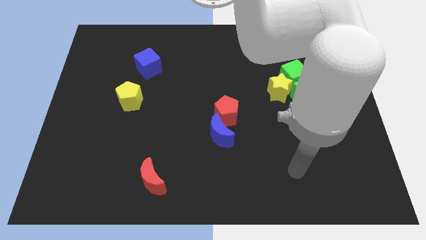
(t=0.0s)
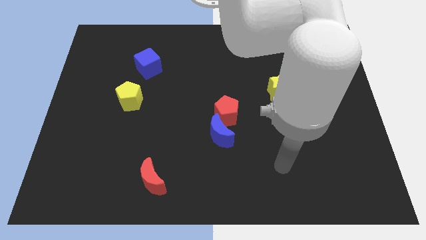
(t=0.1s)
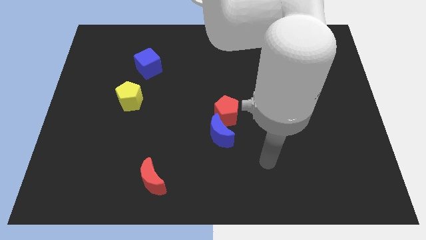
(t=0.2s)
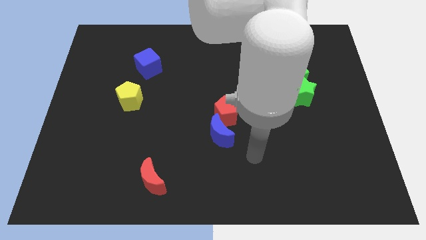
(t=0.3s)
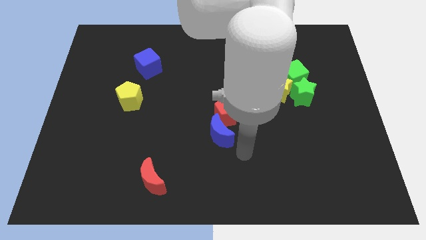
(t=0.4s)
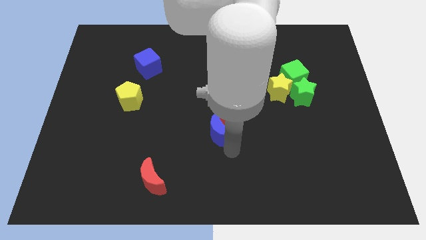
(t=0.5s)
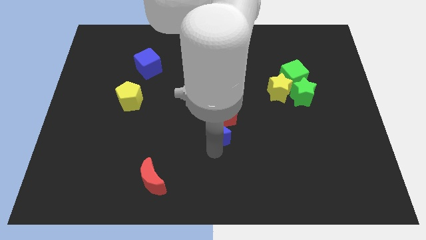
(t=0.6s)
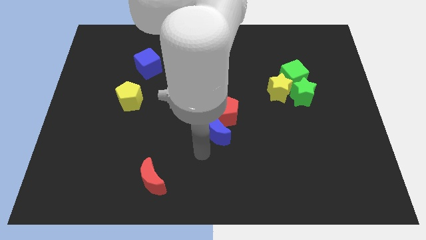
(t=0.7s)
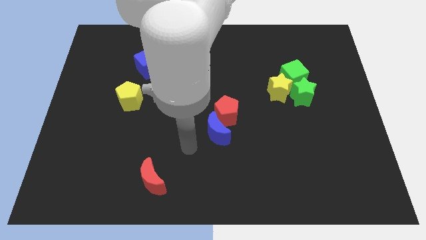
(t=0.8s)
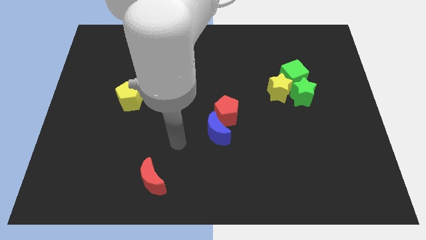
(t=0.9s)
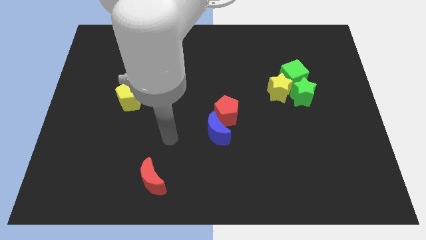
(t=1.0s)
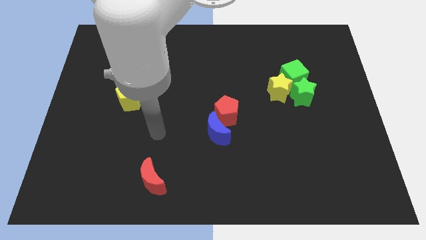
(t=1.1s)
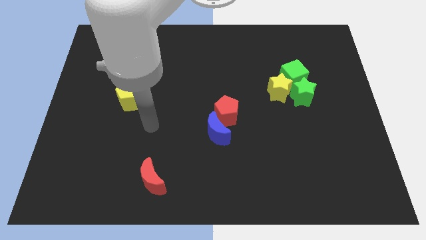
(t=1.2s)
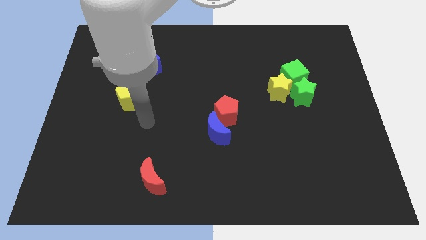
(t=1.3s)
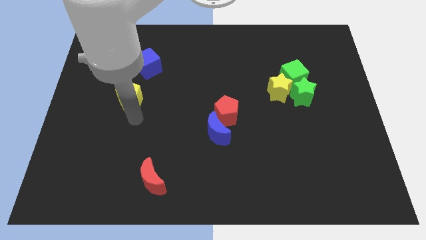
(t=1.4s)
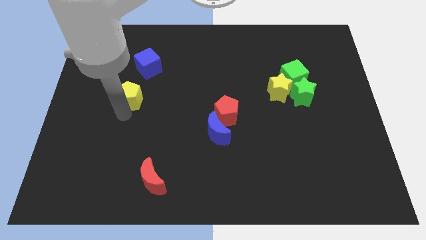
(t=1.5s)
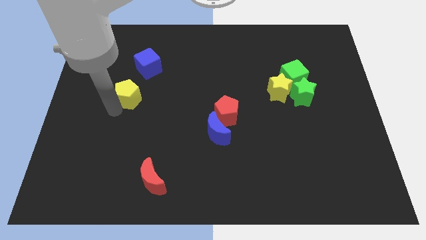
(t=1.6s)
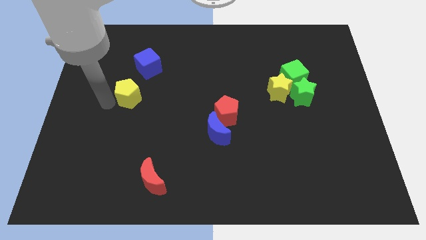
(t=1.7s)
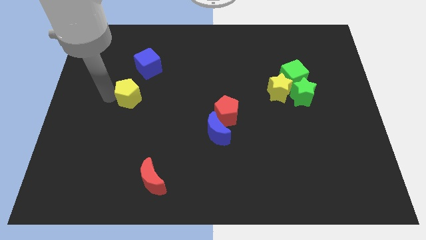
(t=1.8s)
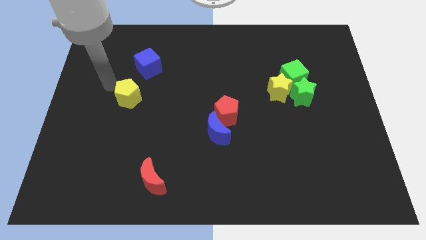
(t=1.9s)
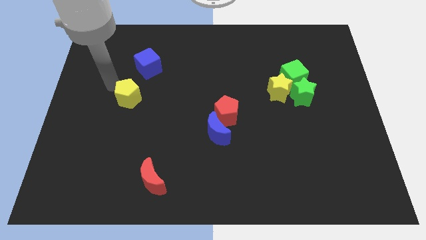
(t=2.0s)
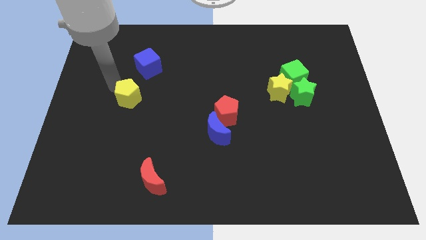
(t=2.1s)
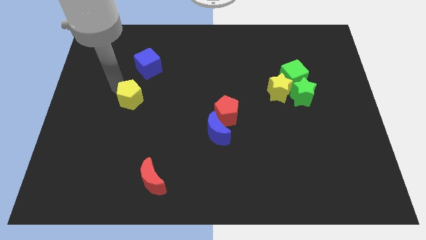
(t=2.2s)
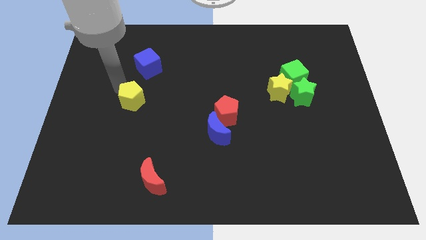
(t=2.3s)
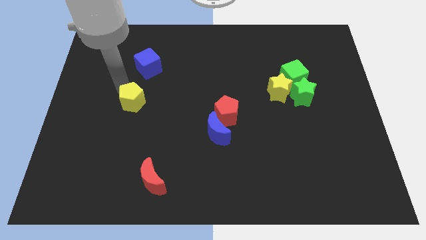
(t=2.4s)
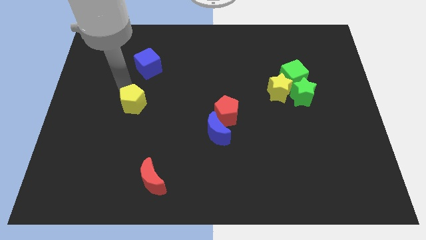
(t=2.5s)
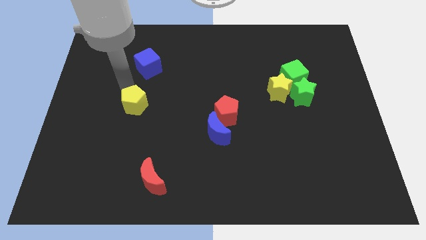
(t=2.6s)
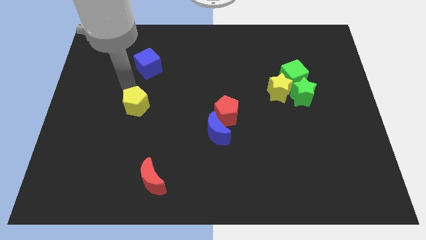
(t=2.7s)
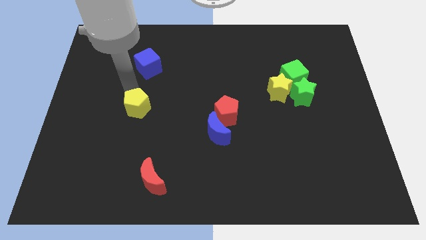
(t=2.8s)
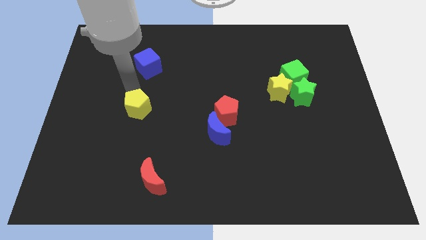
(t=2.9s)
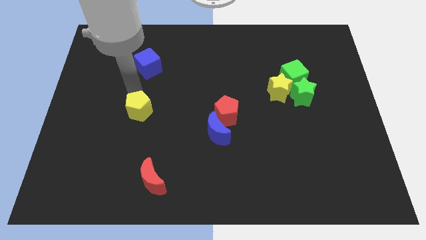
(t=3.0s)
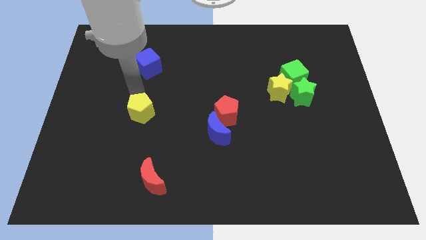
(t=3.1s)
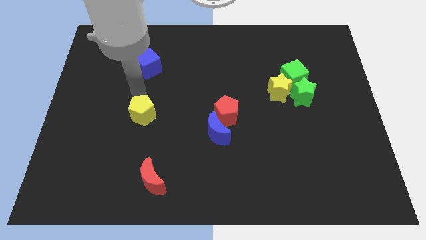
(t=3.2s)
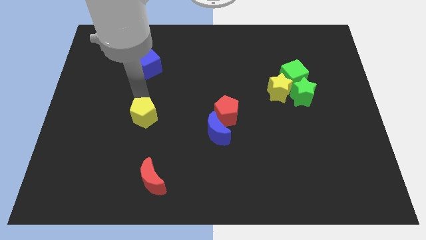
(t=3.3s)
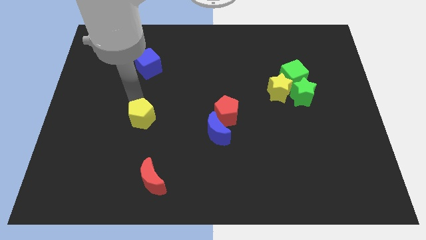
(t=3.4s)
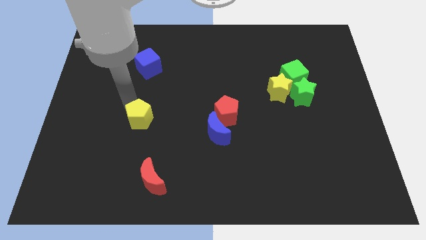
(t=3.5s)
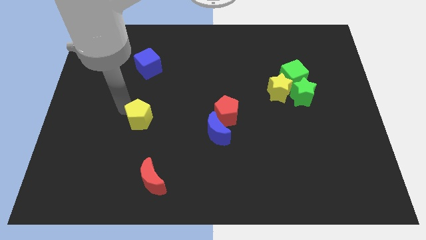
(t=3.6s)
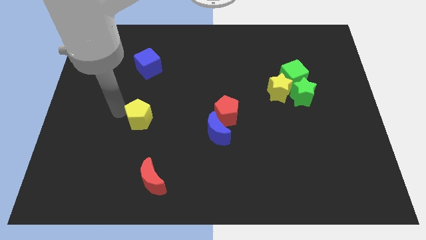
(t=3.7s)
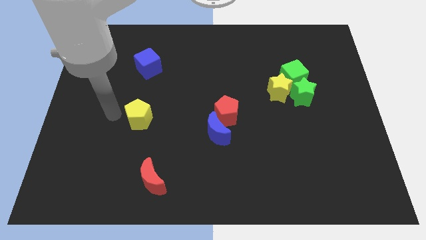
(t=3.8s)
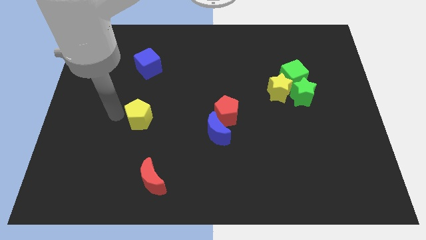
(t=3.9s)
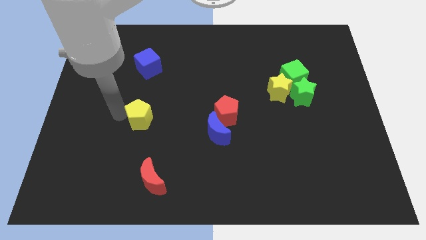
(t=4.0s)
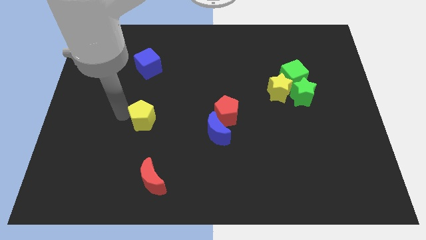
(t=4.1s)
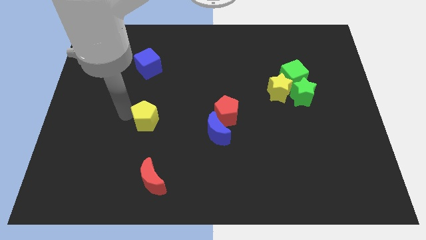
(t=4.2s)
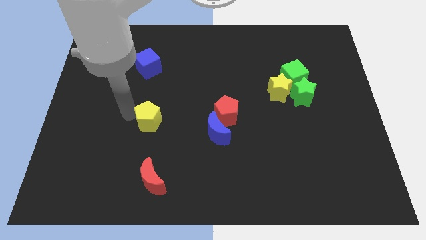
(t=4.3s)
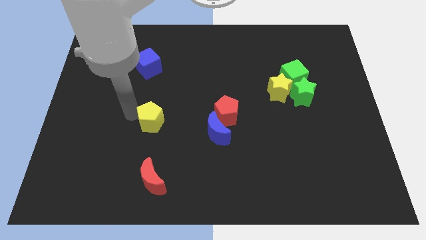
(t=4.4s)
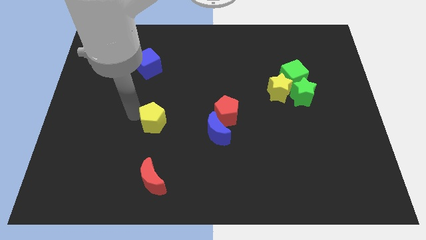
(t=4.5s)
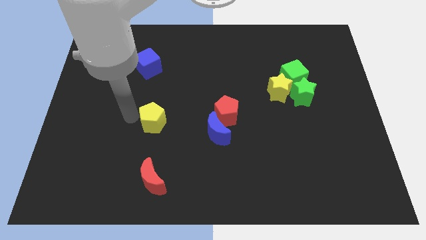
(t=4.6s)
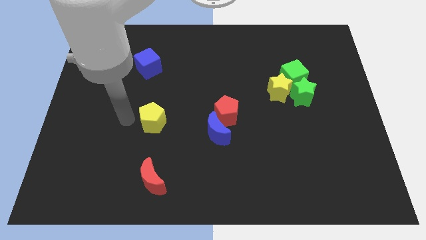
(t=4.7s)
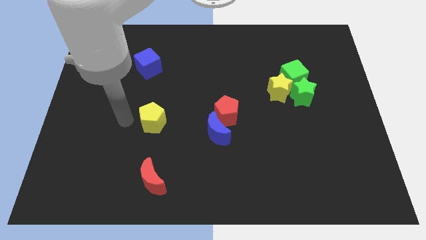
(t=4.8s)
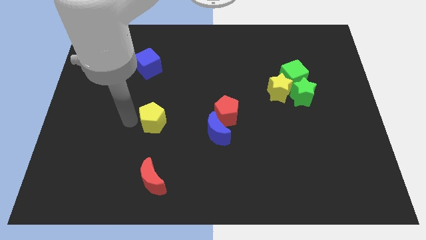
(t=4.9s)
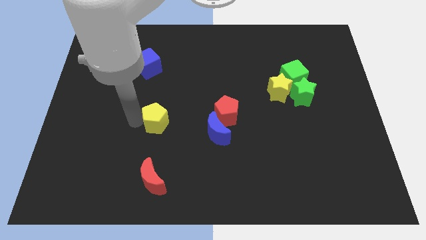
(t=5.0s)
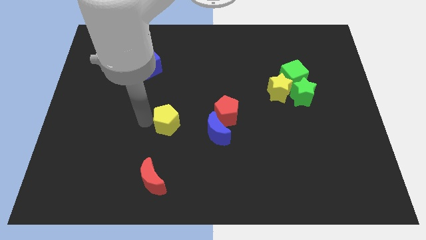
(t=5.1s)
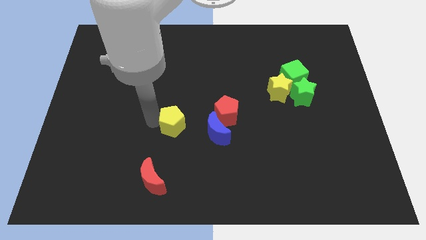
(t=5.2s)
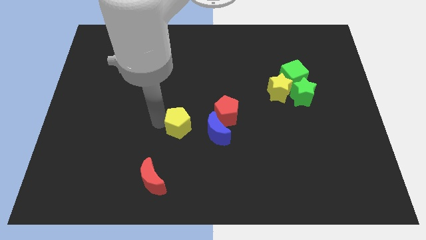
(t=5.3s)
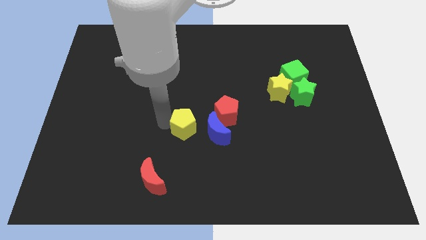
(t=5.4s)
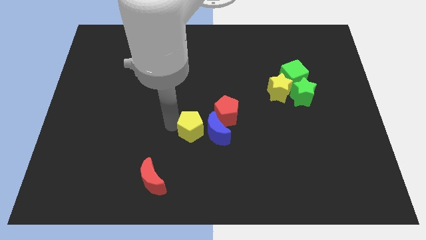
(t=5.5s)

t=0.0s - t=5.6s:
put the yellow pentagon next to the blue moon

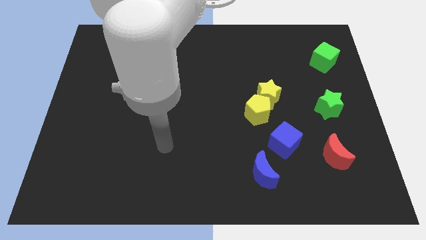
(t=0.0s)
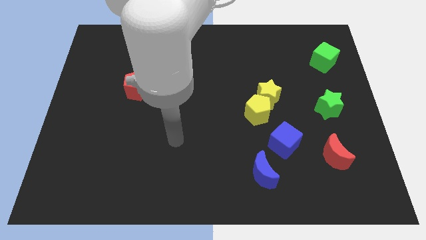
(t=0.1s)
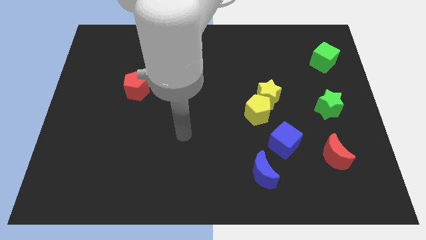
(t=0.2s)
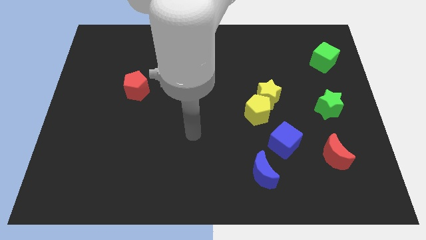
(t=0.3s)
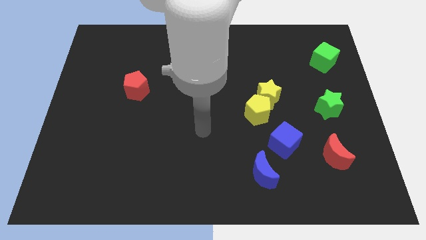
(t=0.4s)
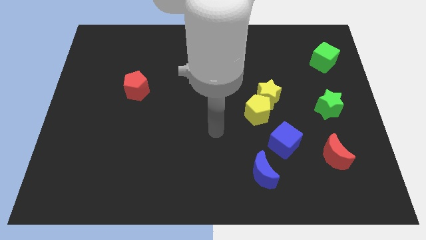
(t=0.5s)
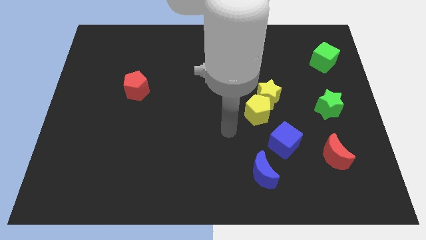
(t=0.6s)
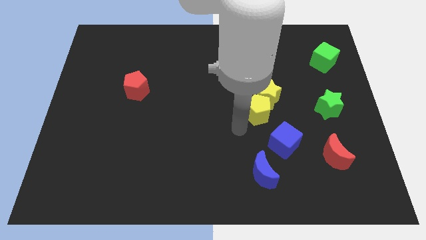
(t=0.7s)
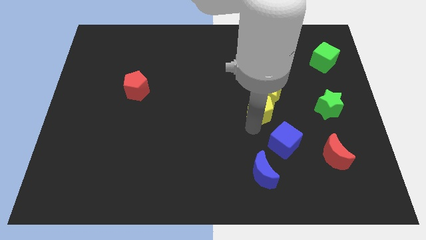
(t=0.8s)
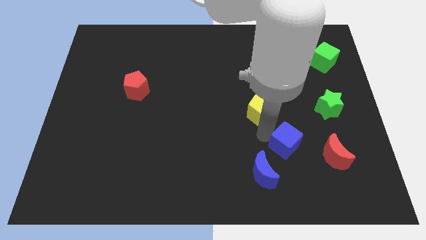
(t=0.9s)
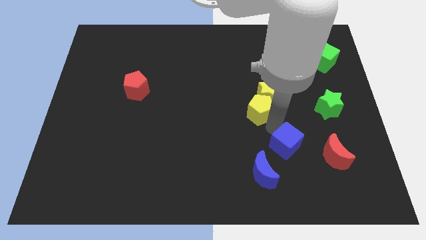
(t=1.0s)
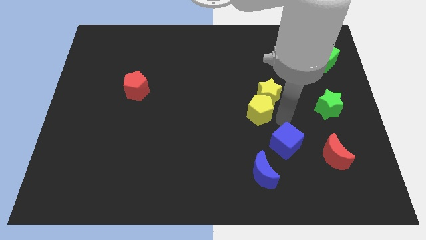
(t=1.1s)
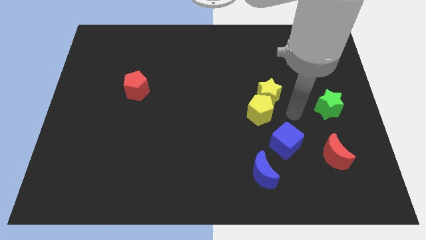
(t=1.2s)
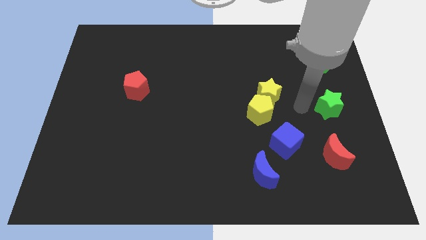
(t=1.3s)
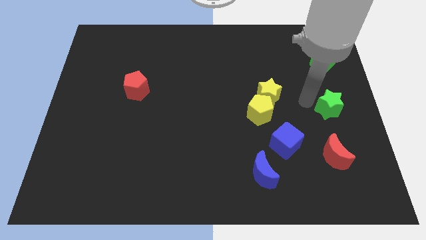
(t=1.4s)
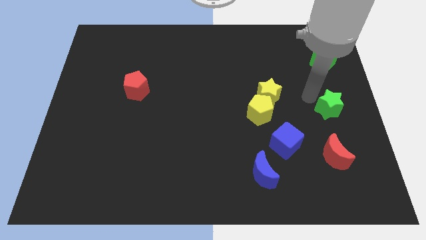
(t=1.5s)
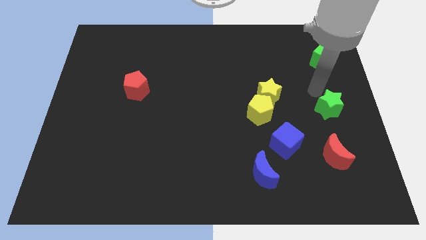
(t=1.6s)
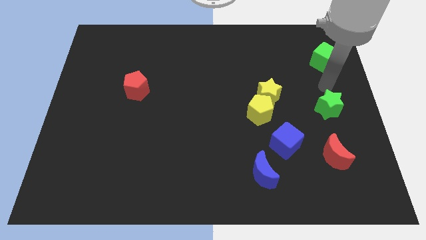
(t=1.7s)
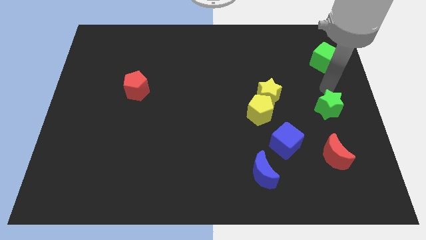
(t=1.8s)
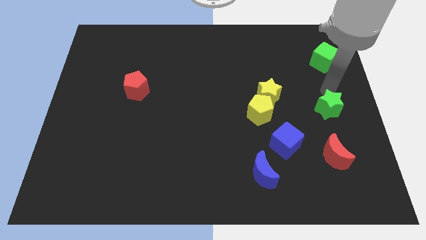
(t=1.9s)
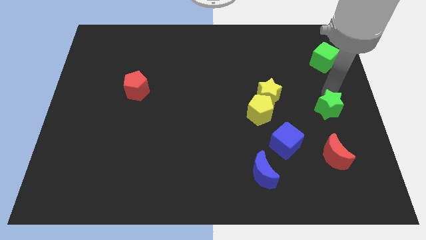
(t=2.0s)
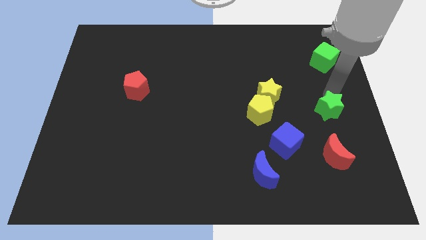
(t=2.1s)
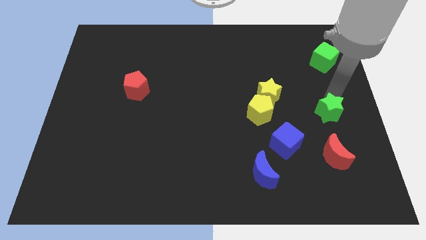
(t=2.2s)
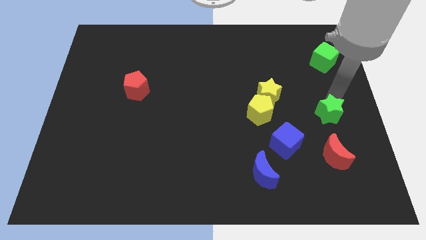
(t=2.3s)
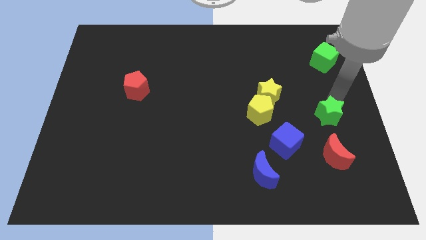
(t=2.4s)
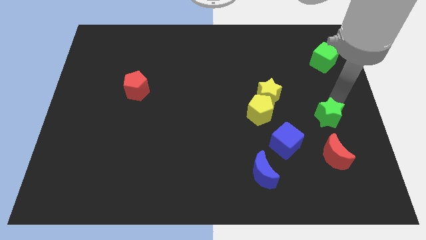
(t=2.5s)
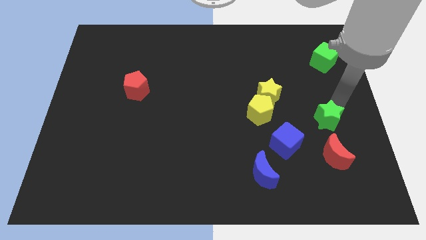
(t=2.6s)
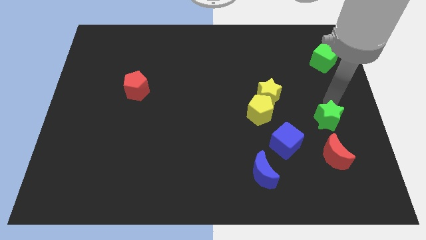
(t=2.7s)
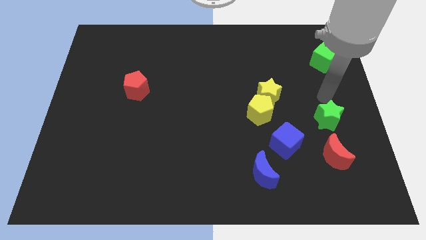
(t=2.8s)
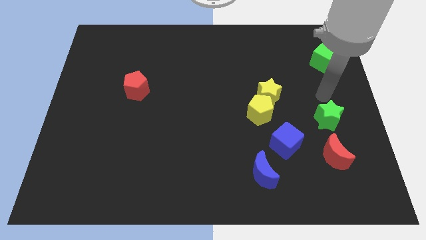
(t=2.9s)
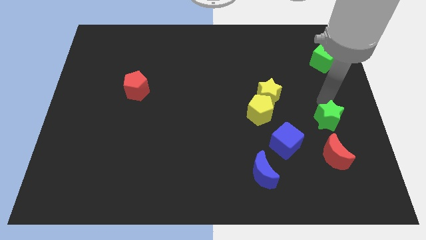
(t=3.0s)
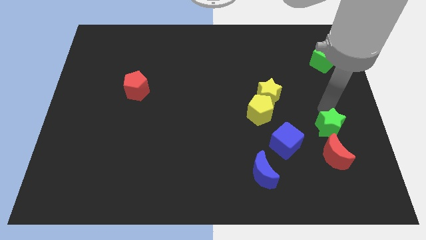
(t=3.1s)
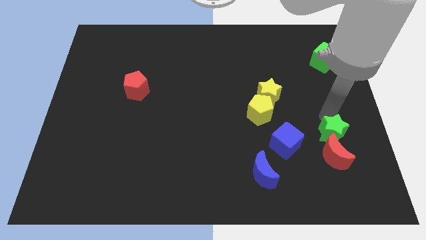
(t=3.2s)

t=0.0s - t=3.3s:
slide the green star close to the red moon
